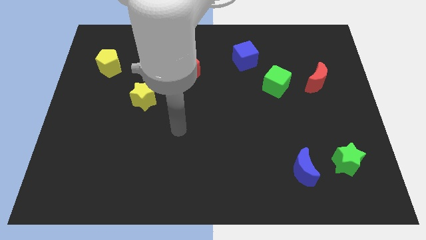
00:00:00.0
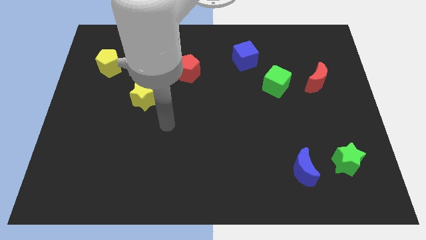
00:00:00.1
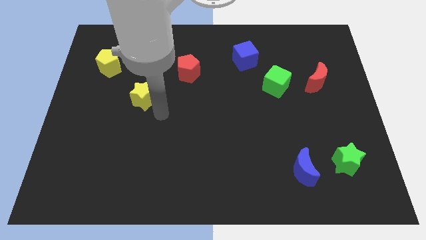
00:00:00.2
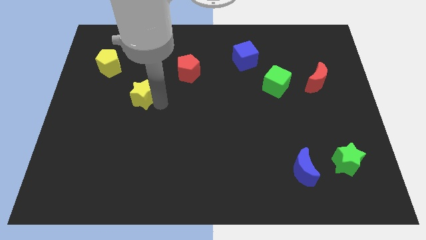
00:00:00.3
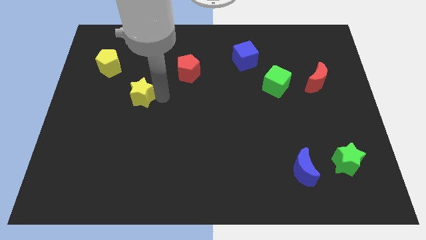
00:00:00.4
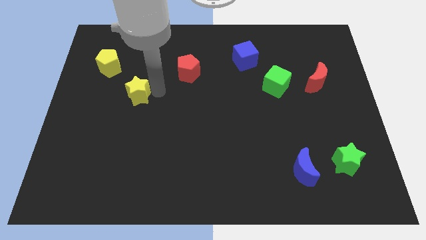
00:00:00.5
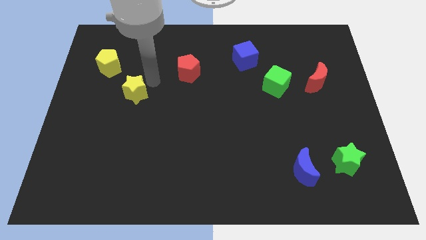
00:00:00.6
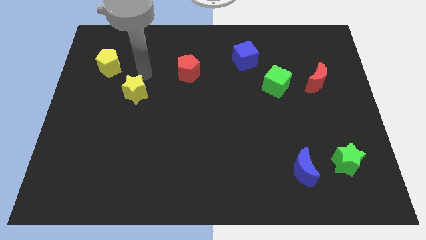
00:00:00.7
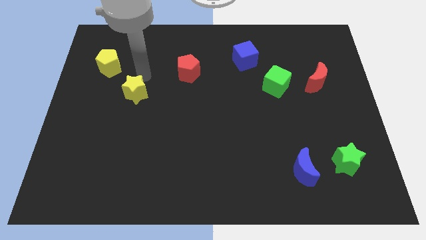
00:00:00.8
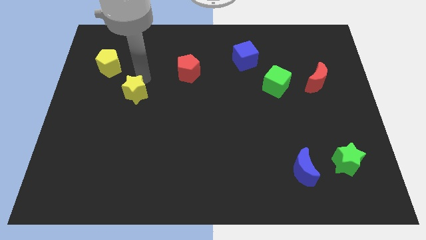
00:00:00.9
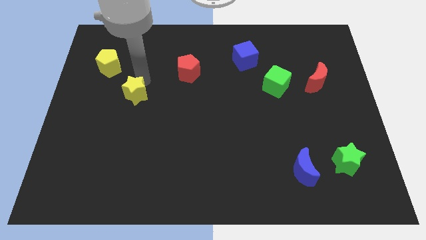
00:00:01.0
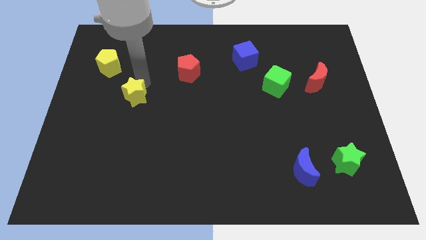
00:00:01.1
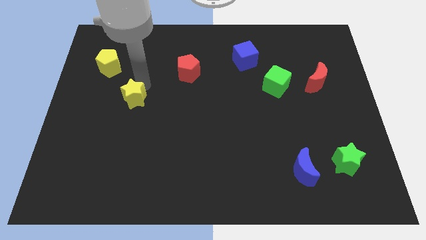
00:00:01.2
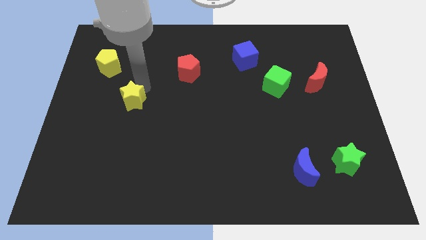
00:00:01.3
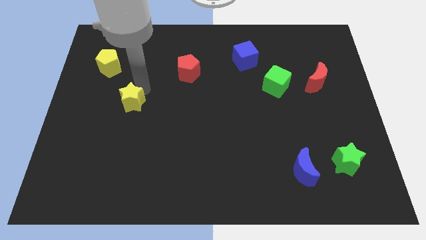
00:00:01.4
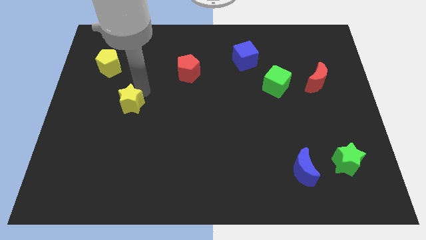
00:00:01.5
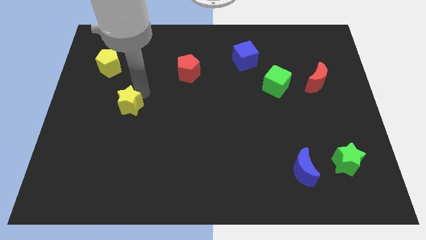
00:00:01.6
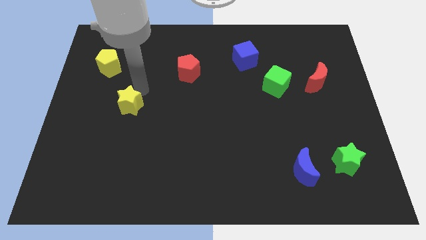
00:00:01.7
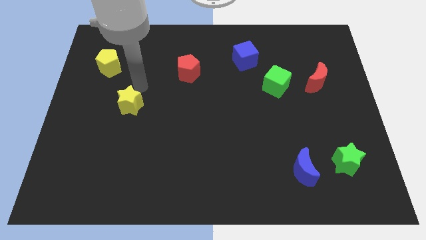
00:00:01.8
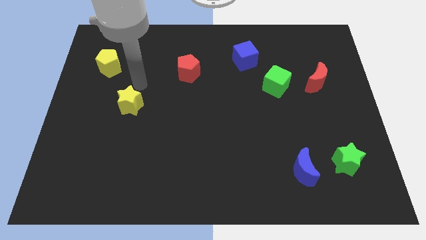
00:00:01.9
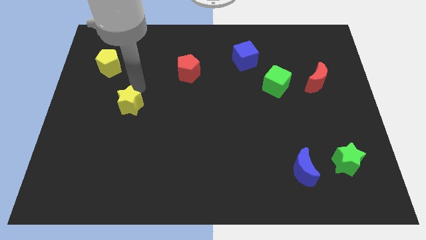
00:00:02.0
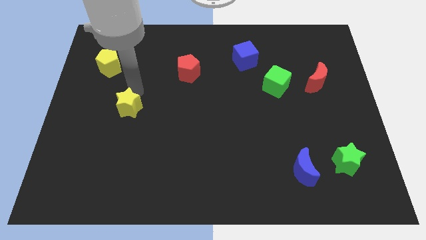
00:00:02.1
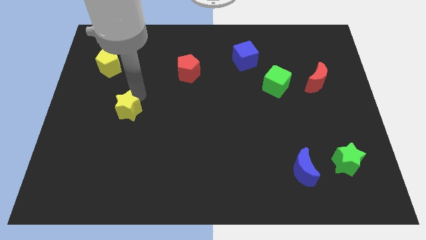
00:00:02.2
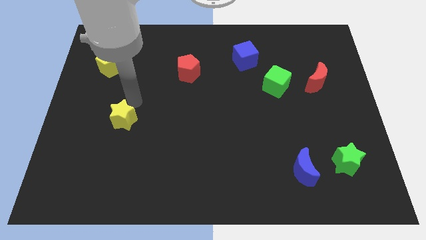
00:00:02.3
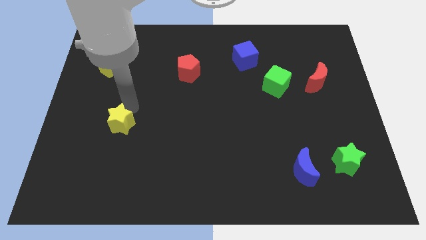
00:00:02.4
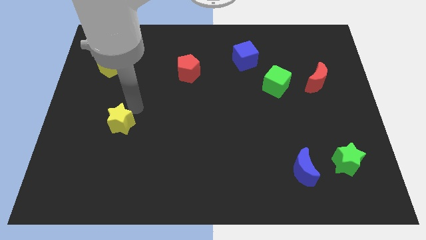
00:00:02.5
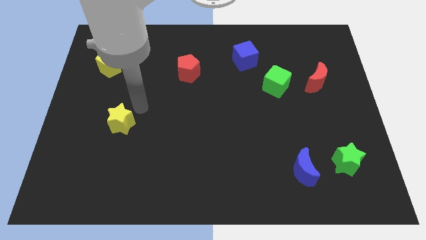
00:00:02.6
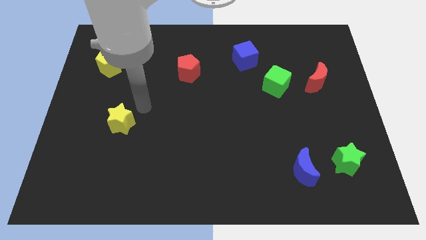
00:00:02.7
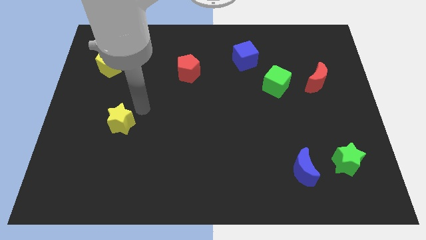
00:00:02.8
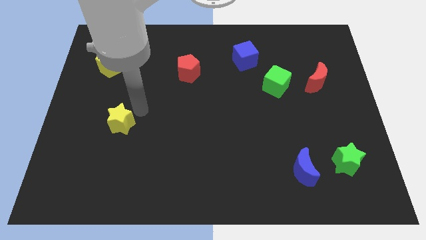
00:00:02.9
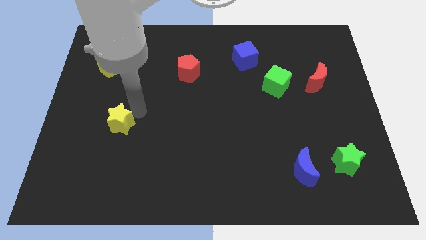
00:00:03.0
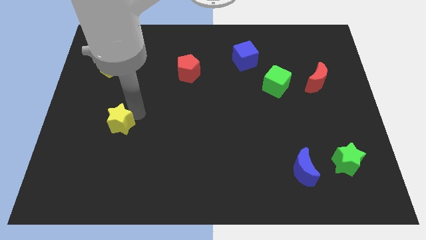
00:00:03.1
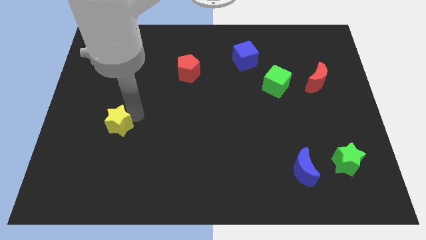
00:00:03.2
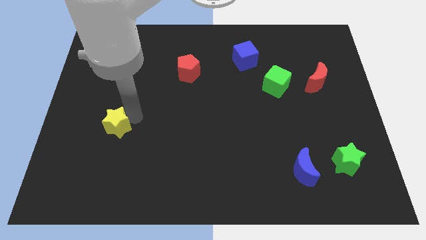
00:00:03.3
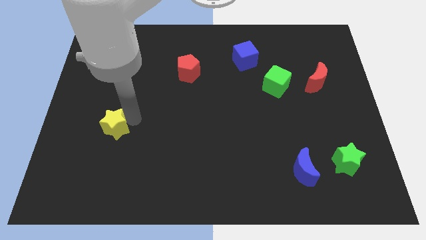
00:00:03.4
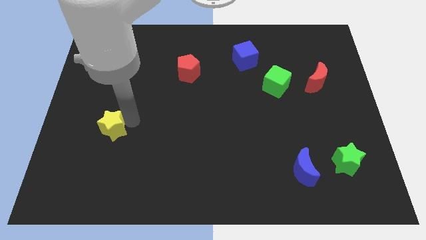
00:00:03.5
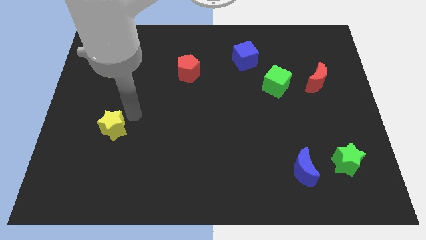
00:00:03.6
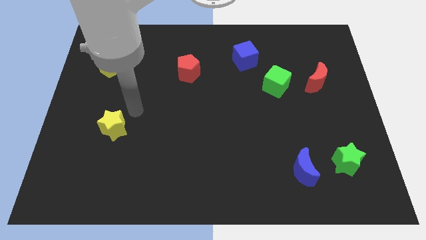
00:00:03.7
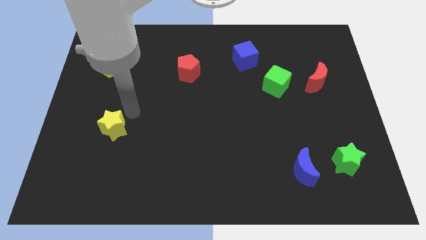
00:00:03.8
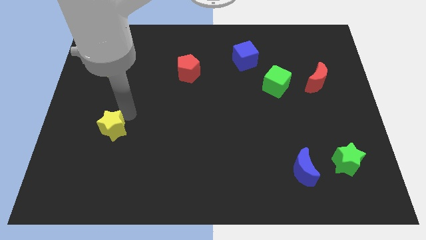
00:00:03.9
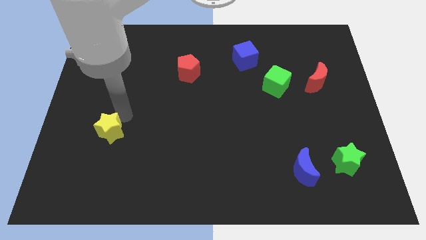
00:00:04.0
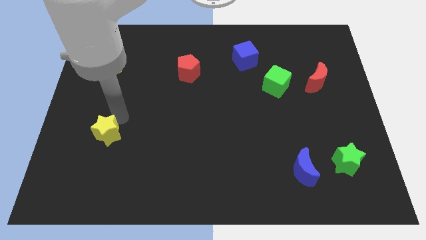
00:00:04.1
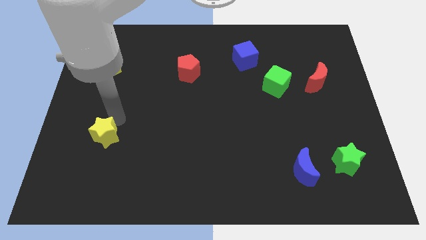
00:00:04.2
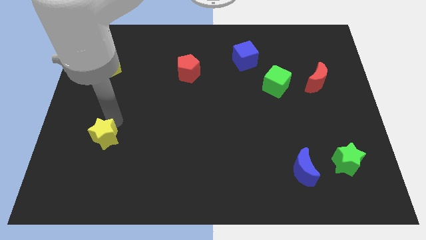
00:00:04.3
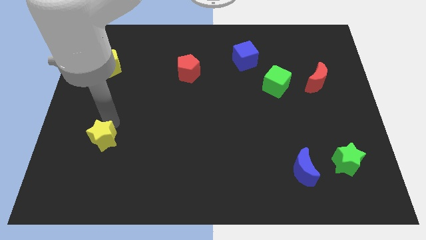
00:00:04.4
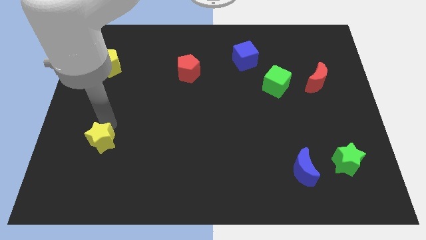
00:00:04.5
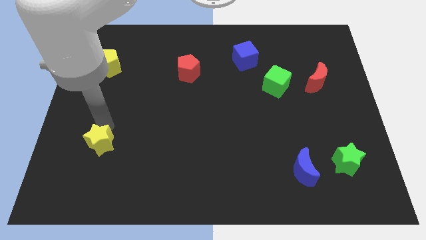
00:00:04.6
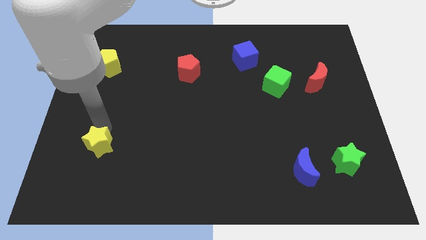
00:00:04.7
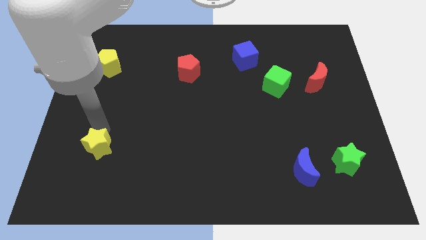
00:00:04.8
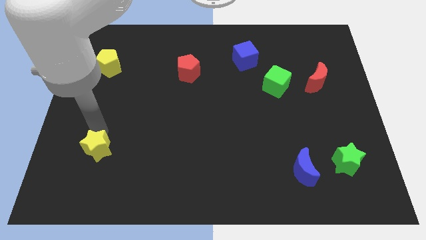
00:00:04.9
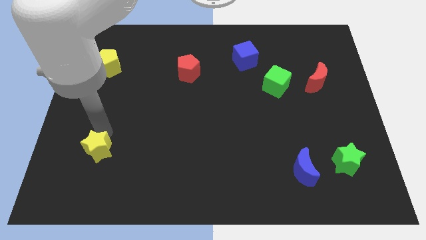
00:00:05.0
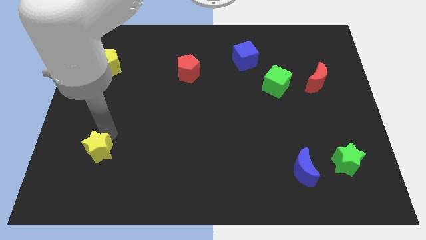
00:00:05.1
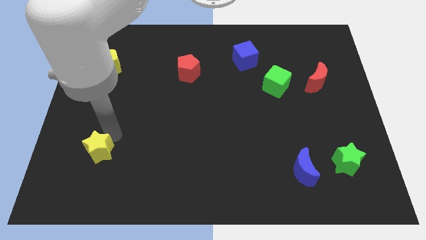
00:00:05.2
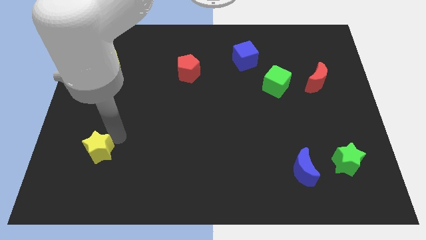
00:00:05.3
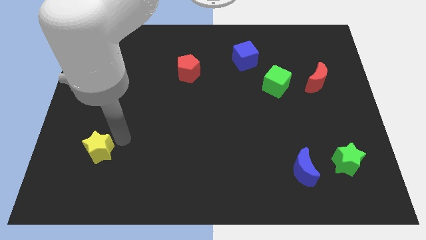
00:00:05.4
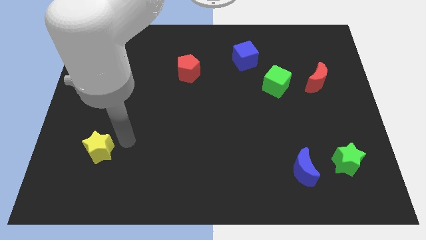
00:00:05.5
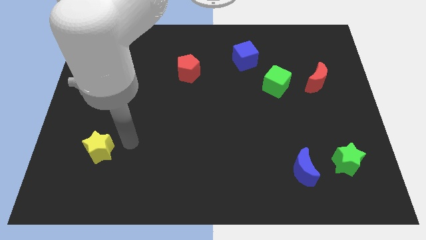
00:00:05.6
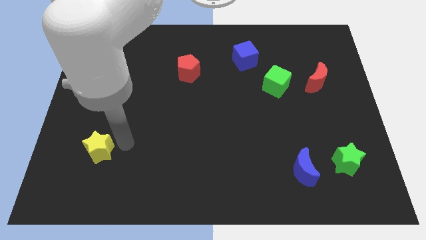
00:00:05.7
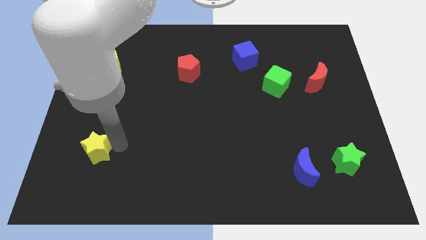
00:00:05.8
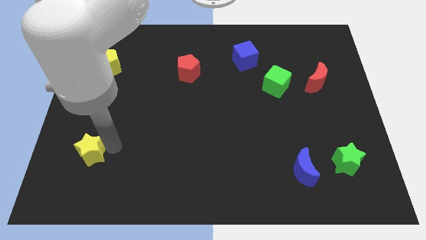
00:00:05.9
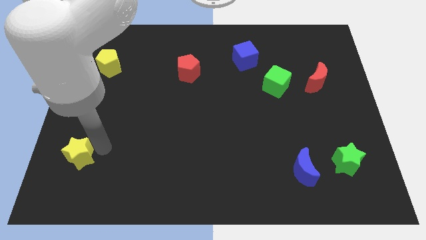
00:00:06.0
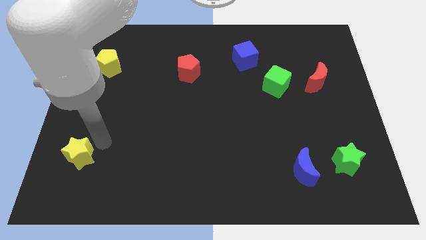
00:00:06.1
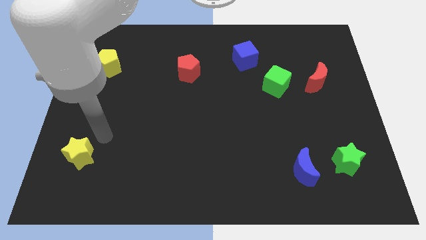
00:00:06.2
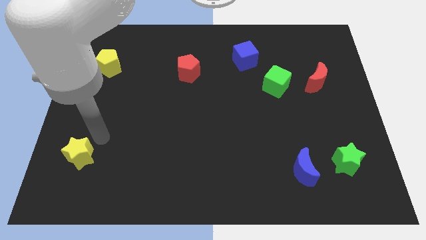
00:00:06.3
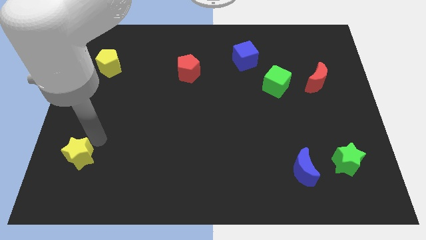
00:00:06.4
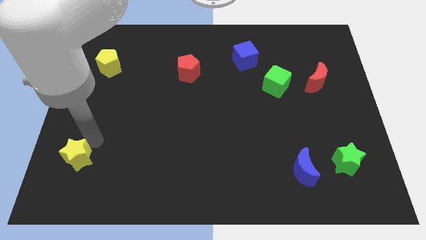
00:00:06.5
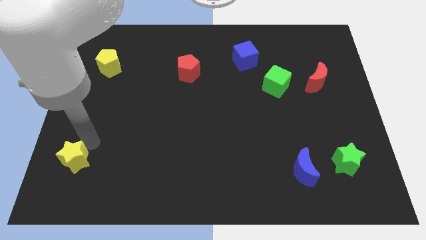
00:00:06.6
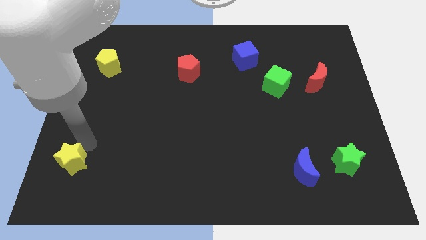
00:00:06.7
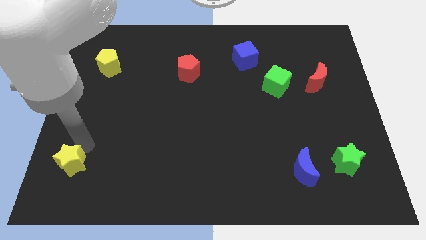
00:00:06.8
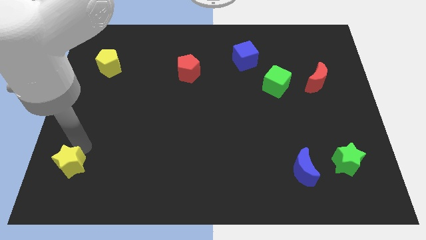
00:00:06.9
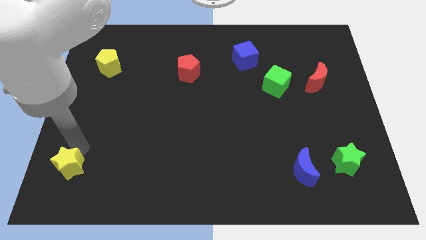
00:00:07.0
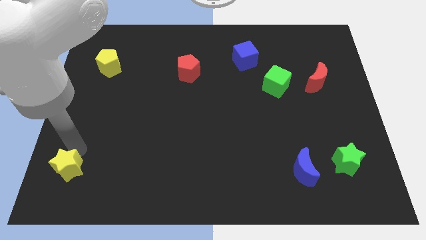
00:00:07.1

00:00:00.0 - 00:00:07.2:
put the yellow star to the bottom left of the board

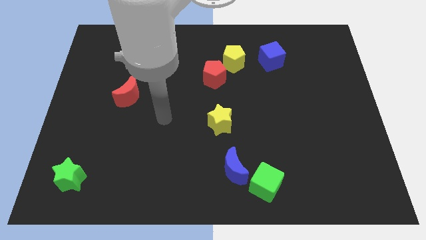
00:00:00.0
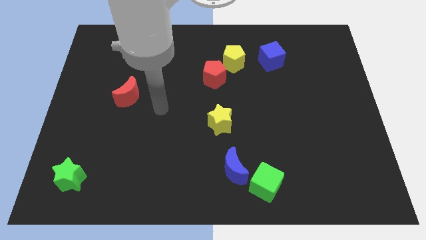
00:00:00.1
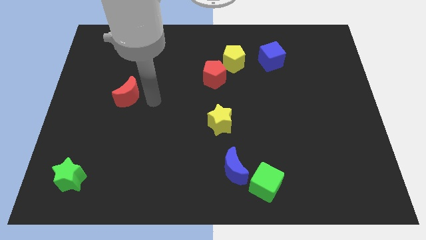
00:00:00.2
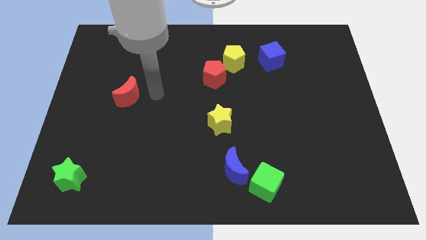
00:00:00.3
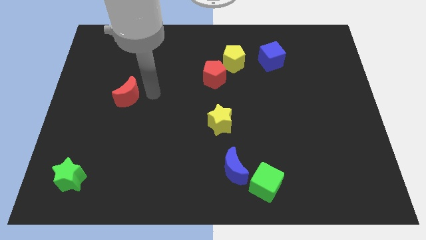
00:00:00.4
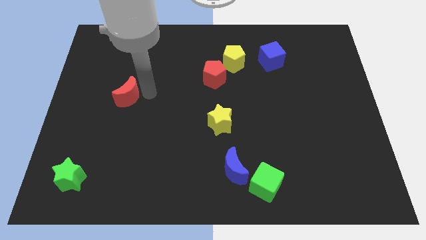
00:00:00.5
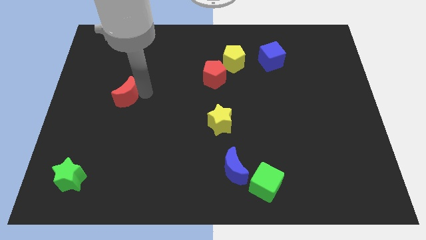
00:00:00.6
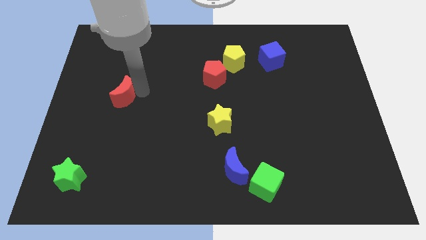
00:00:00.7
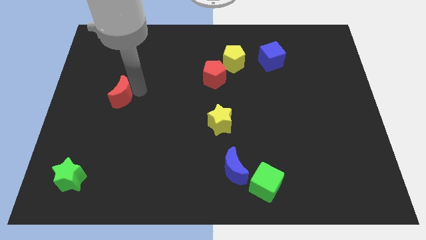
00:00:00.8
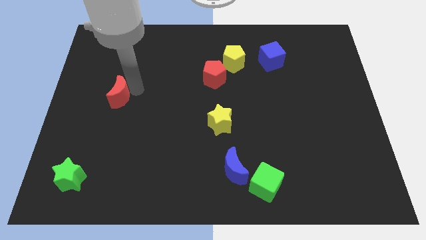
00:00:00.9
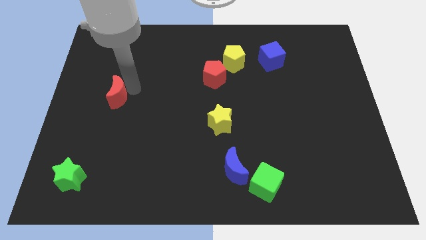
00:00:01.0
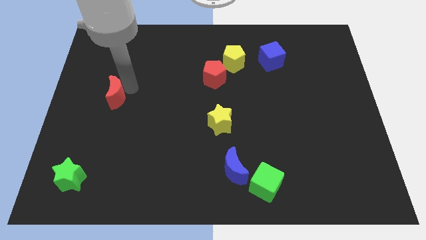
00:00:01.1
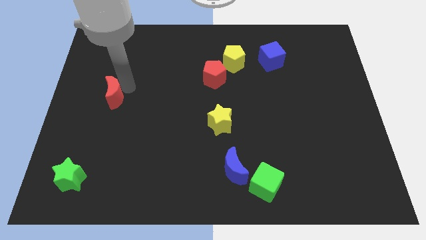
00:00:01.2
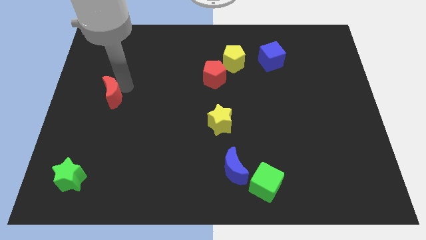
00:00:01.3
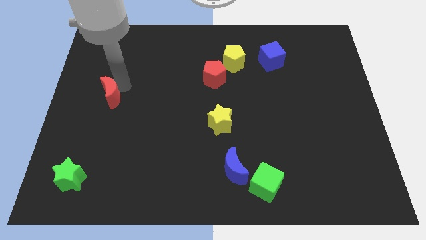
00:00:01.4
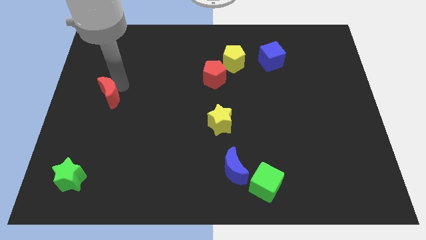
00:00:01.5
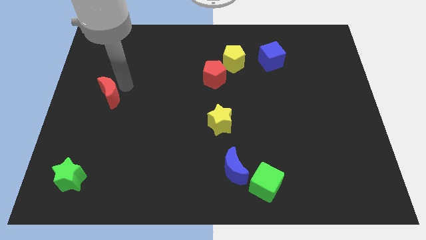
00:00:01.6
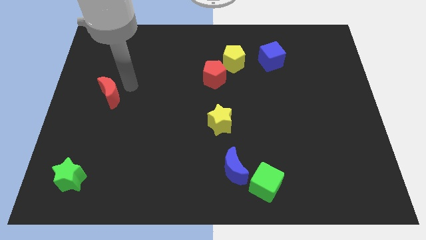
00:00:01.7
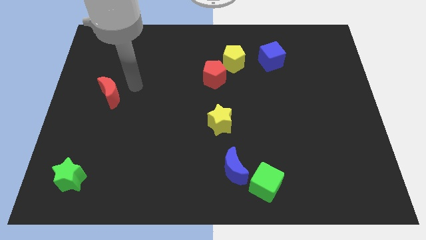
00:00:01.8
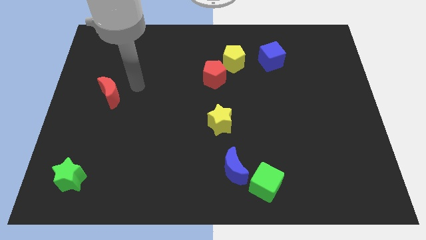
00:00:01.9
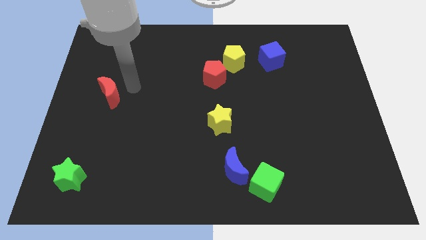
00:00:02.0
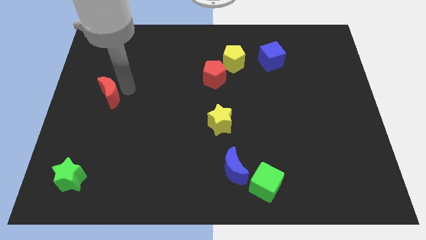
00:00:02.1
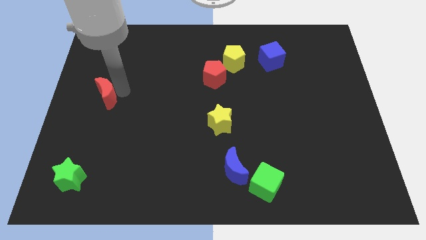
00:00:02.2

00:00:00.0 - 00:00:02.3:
slide the red moon to the center left
